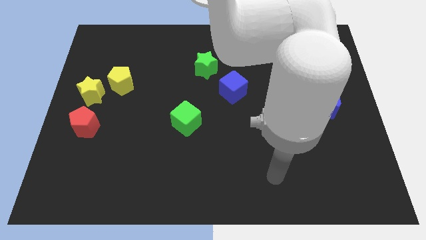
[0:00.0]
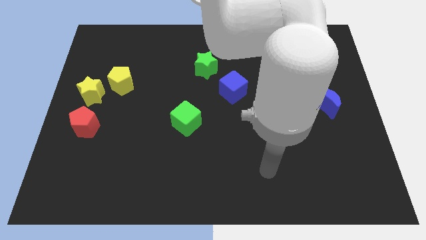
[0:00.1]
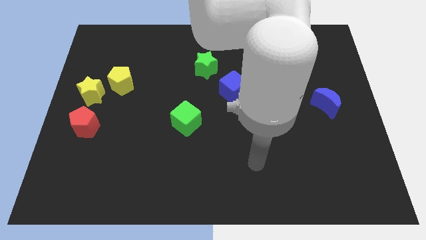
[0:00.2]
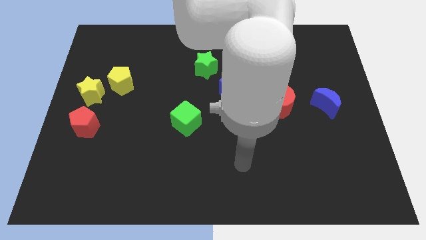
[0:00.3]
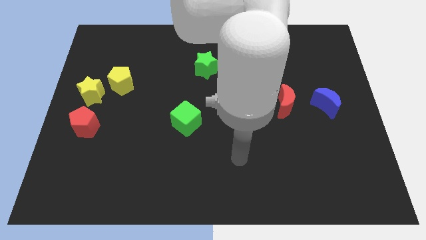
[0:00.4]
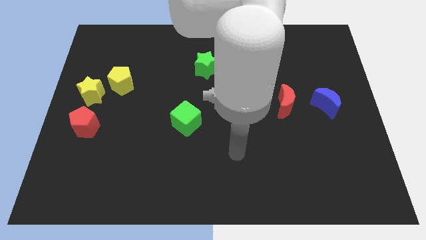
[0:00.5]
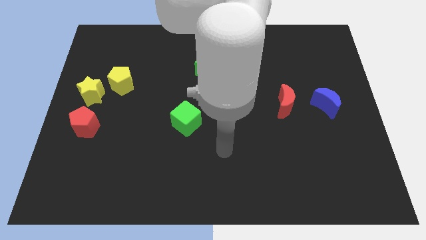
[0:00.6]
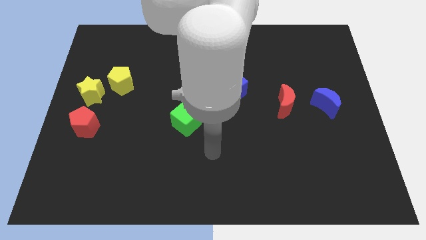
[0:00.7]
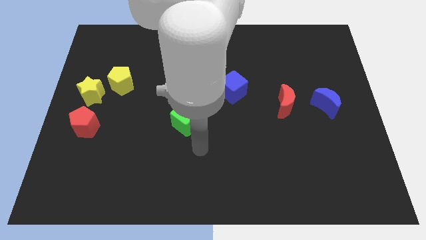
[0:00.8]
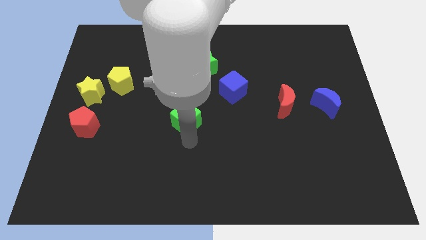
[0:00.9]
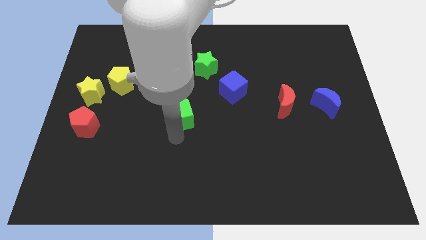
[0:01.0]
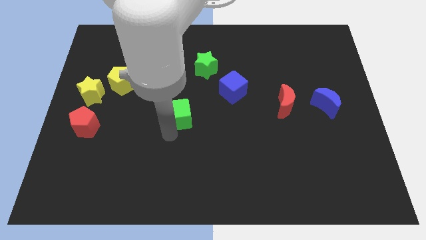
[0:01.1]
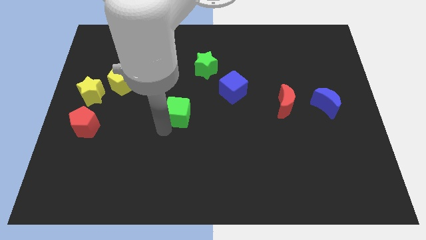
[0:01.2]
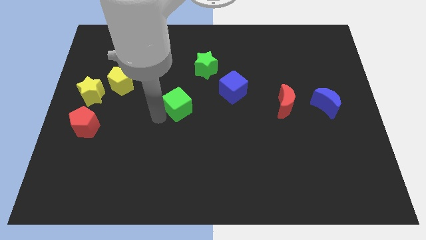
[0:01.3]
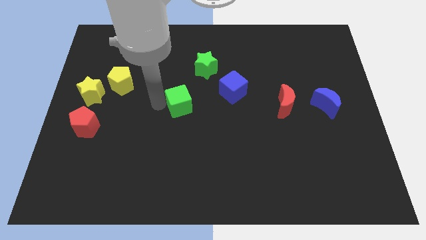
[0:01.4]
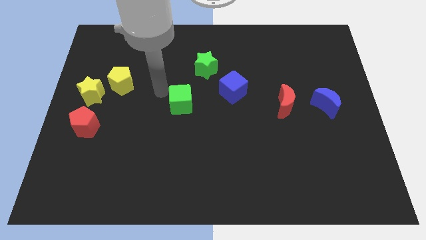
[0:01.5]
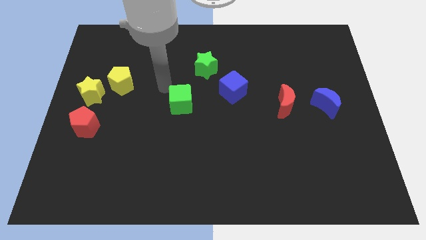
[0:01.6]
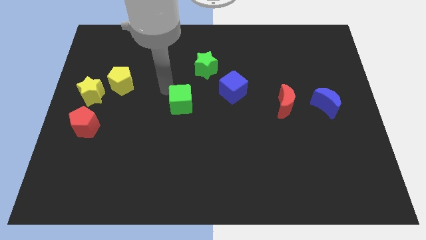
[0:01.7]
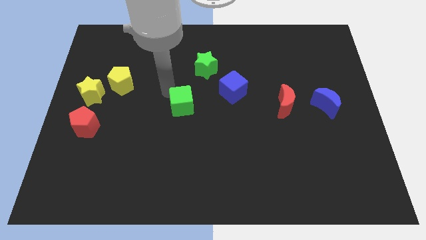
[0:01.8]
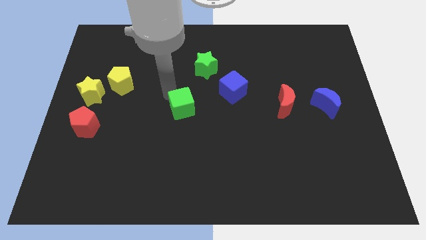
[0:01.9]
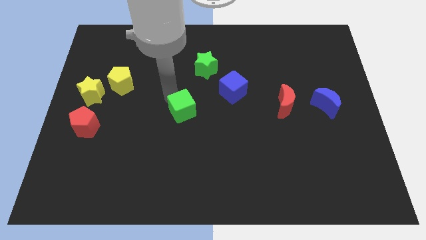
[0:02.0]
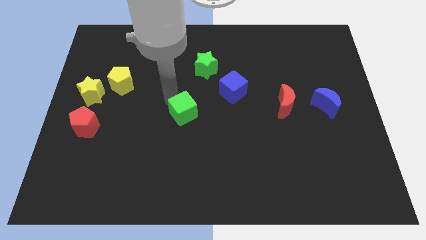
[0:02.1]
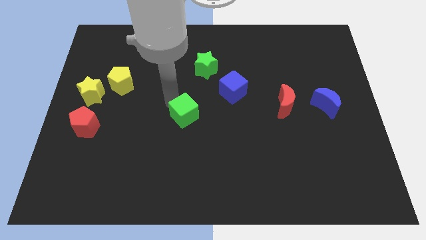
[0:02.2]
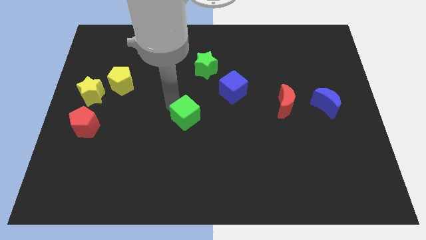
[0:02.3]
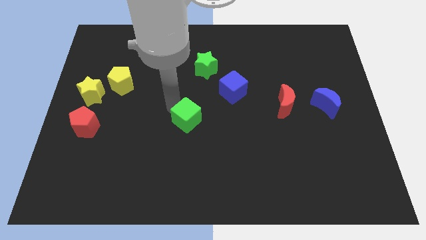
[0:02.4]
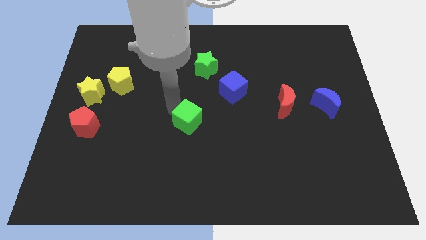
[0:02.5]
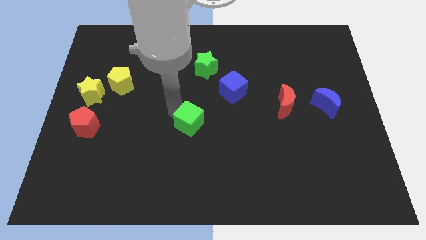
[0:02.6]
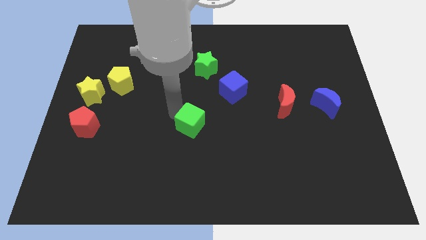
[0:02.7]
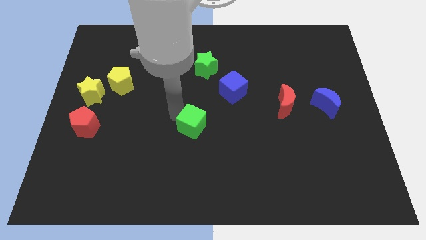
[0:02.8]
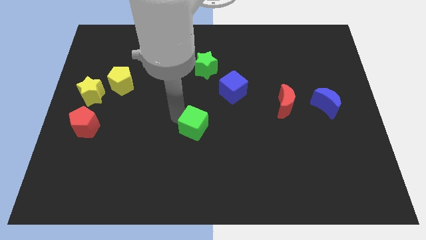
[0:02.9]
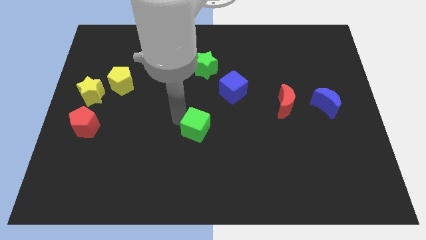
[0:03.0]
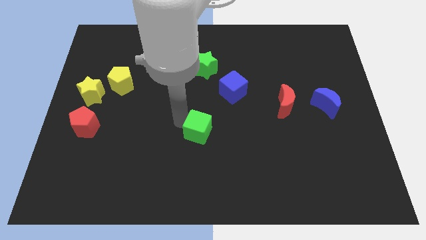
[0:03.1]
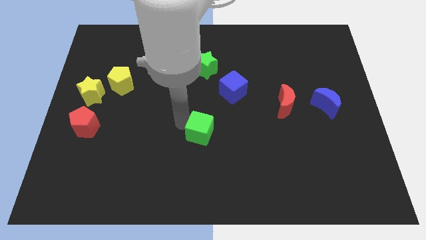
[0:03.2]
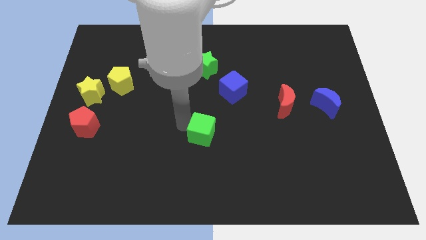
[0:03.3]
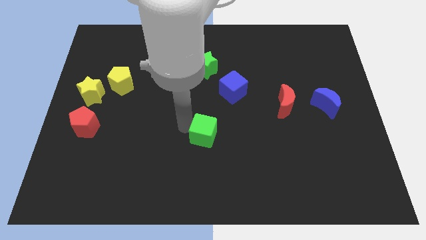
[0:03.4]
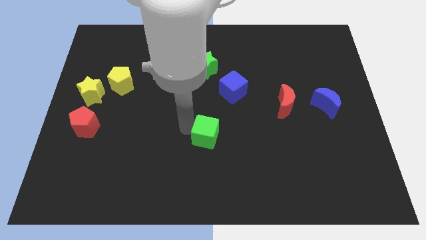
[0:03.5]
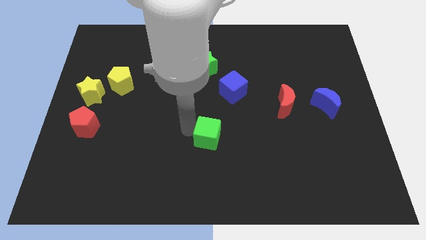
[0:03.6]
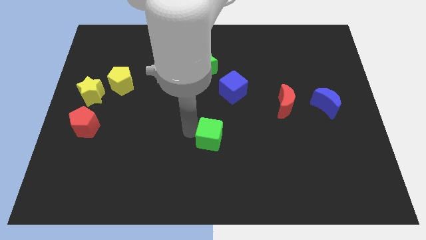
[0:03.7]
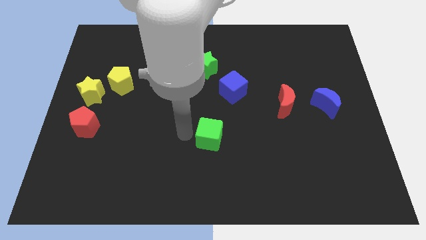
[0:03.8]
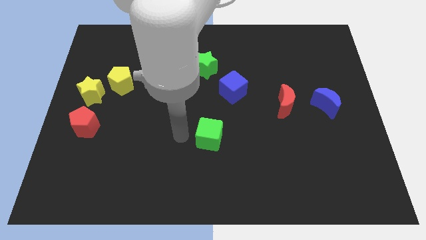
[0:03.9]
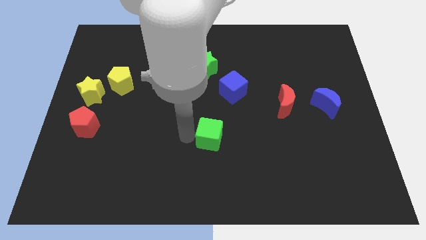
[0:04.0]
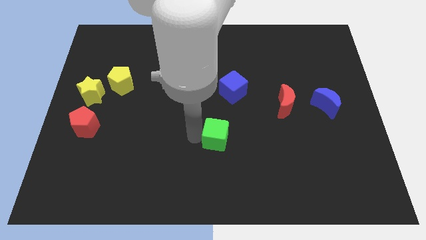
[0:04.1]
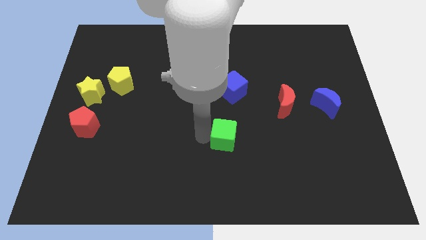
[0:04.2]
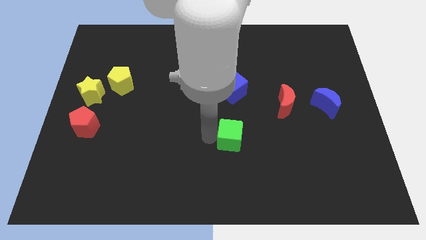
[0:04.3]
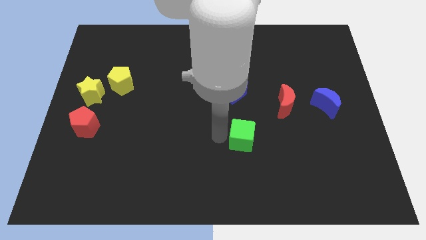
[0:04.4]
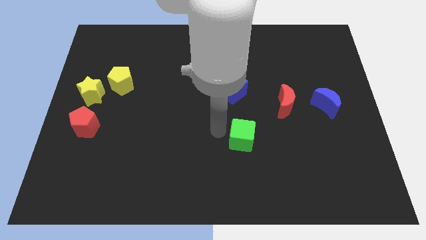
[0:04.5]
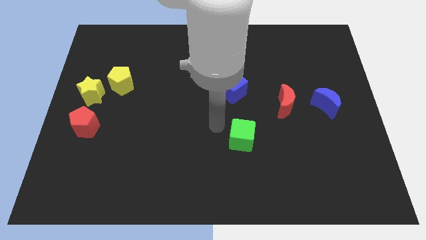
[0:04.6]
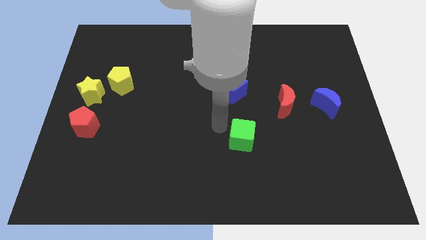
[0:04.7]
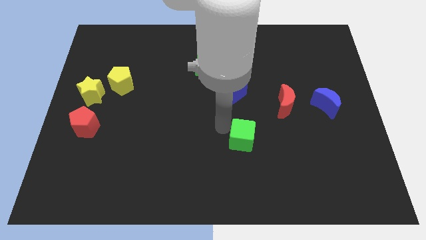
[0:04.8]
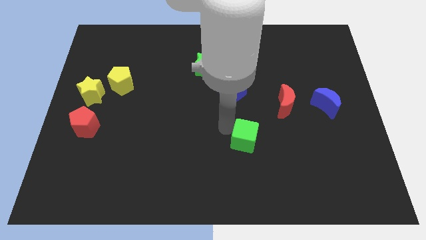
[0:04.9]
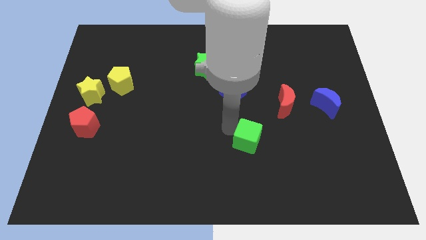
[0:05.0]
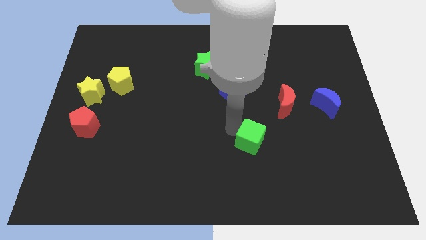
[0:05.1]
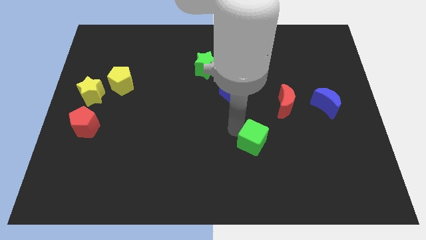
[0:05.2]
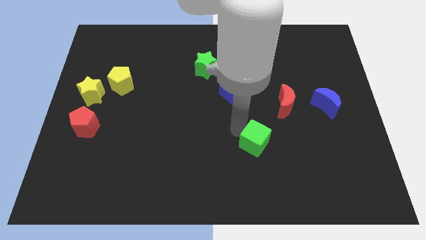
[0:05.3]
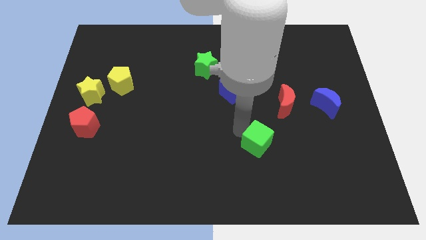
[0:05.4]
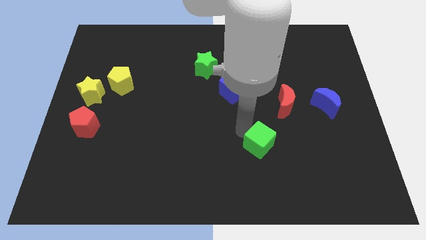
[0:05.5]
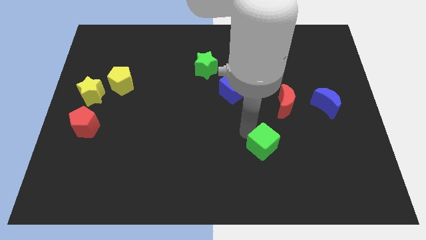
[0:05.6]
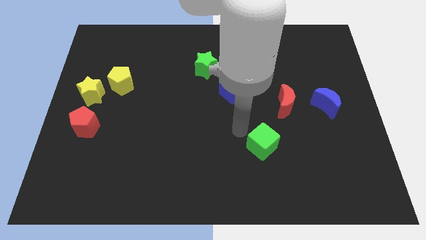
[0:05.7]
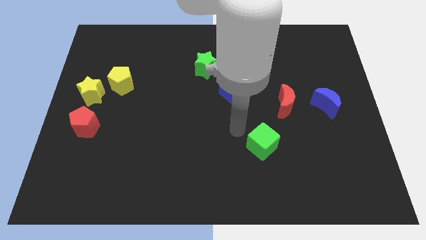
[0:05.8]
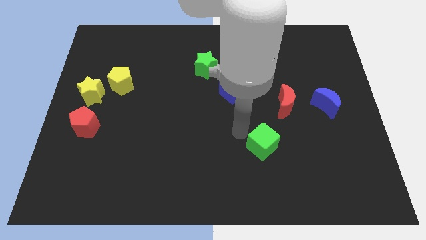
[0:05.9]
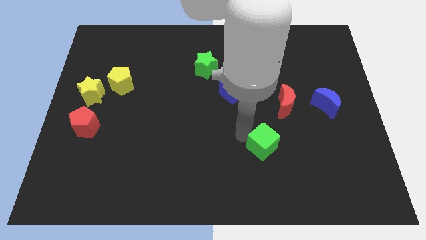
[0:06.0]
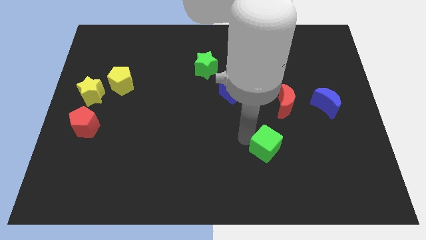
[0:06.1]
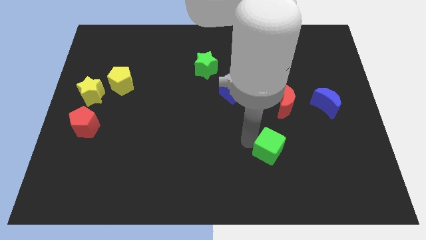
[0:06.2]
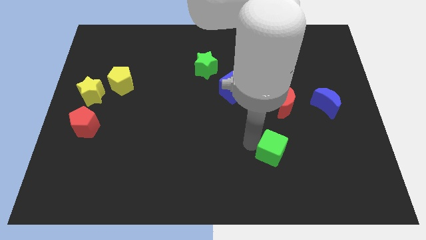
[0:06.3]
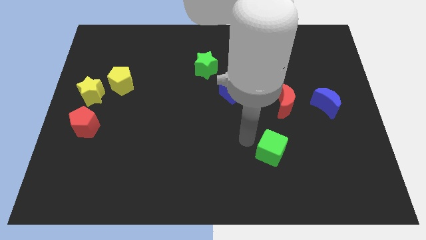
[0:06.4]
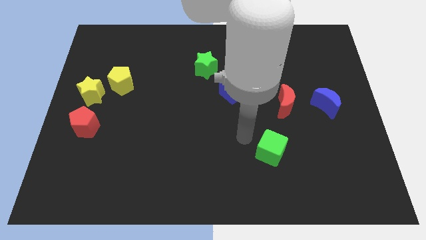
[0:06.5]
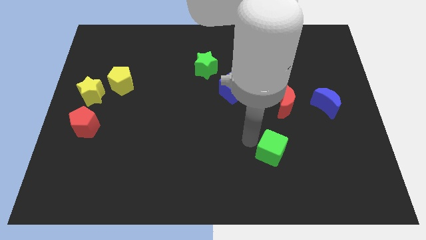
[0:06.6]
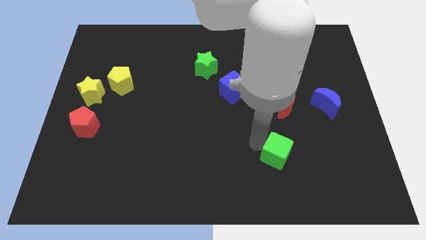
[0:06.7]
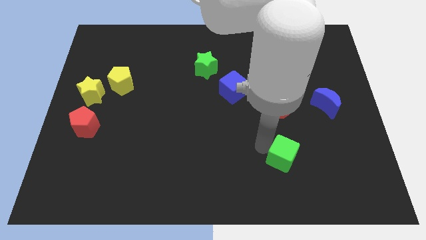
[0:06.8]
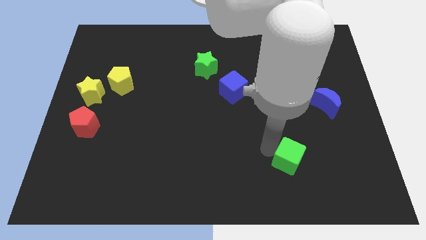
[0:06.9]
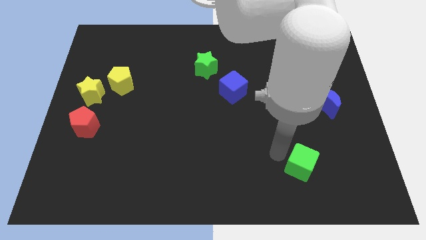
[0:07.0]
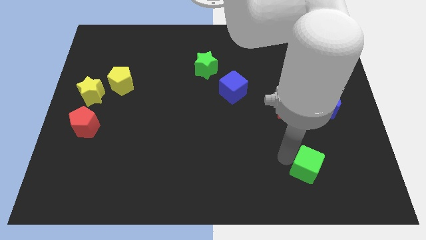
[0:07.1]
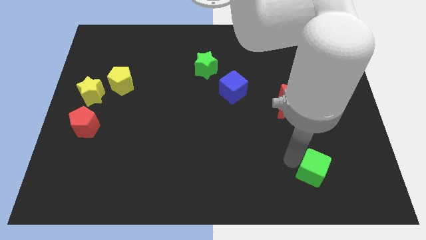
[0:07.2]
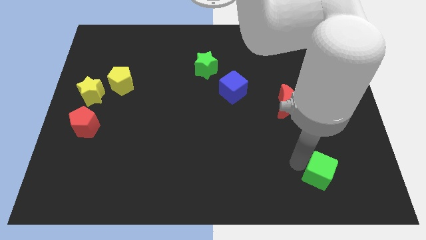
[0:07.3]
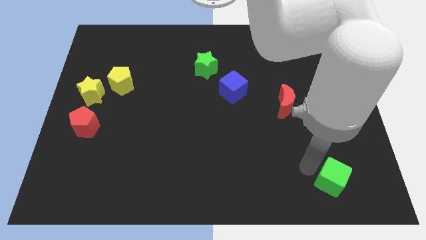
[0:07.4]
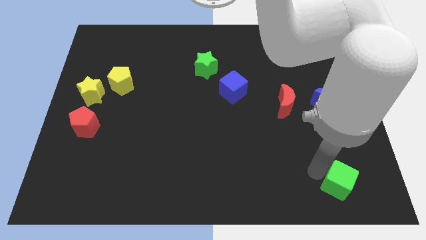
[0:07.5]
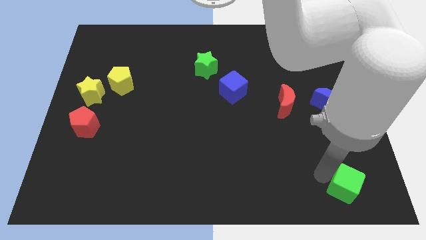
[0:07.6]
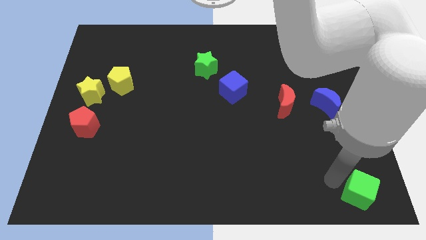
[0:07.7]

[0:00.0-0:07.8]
push the green cube to the bottom right of the board
